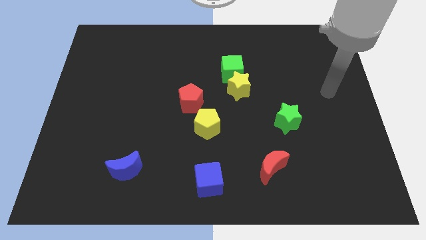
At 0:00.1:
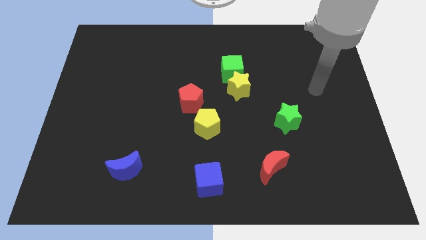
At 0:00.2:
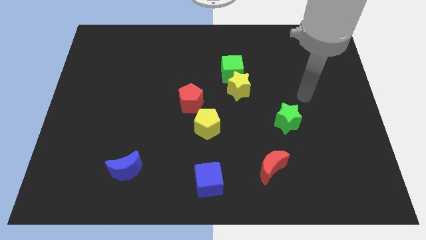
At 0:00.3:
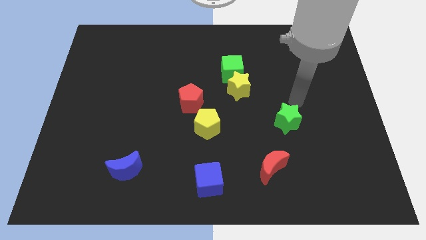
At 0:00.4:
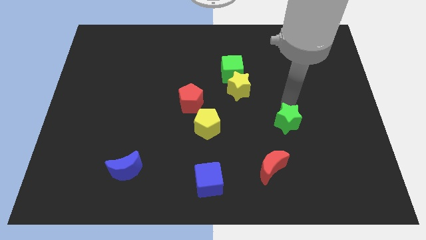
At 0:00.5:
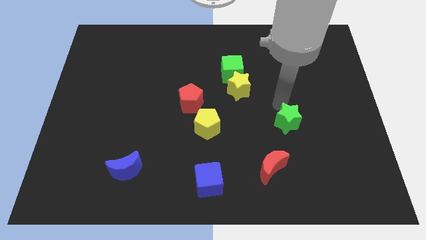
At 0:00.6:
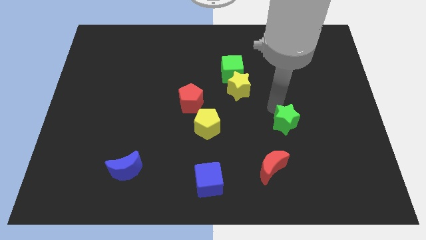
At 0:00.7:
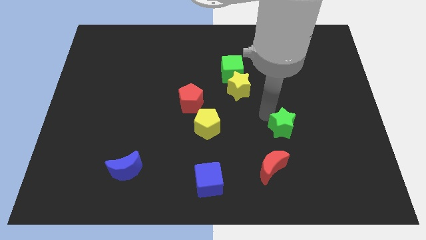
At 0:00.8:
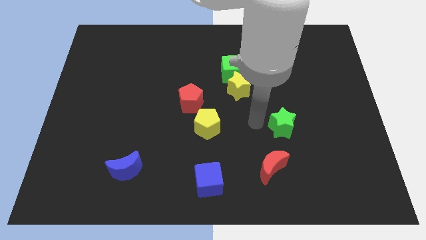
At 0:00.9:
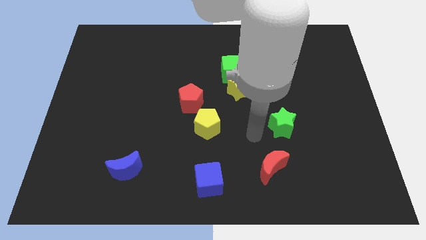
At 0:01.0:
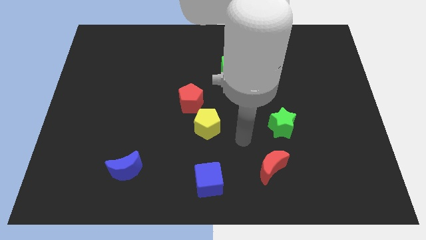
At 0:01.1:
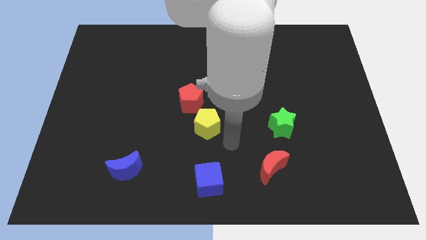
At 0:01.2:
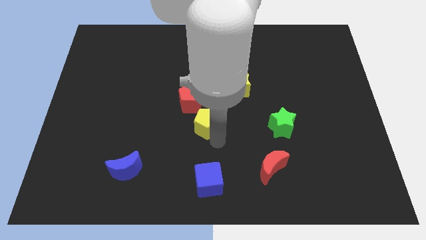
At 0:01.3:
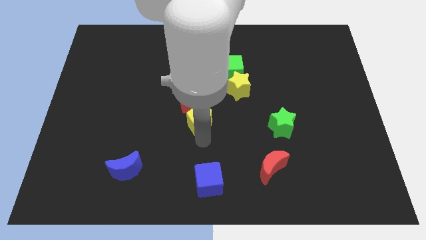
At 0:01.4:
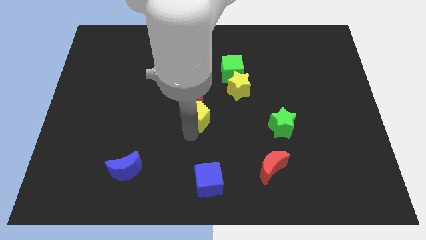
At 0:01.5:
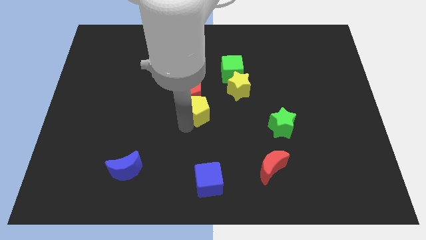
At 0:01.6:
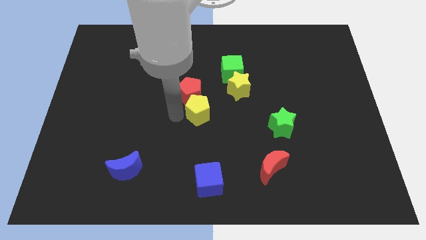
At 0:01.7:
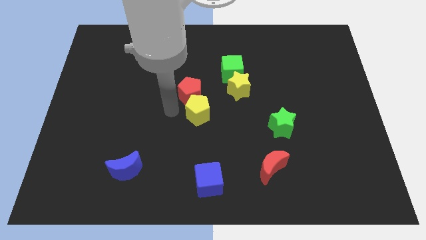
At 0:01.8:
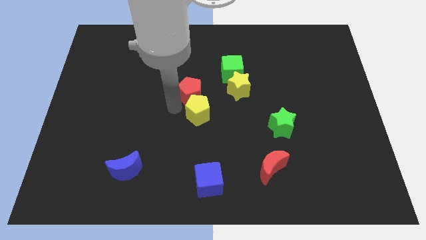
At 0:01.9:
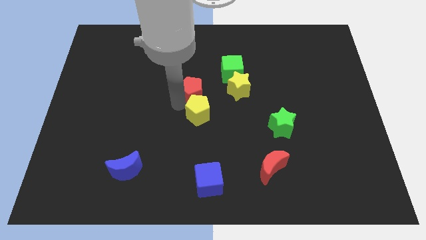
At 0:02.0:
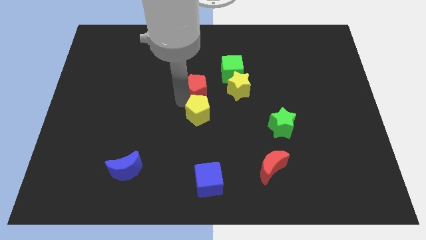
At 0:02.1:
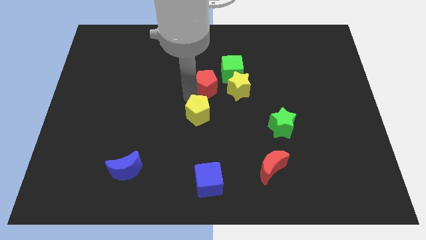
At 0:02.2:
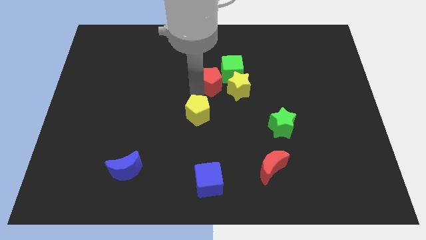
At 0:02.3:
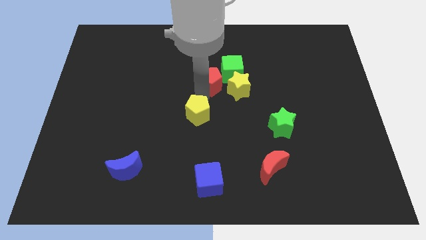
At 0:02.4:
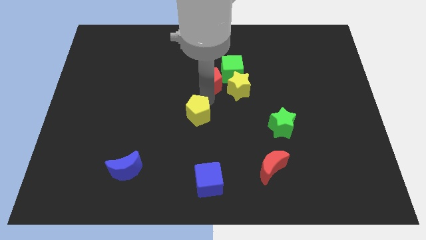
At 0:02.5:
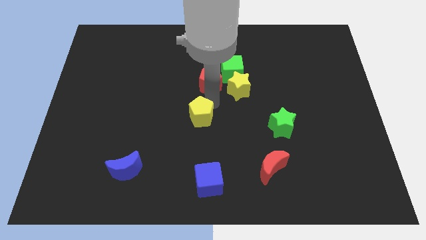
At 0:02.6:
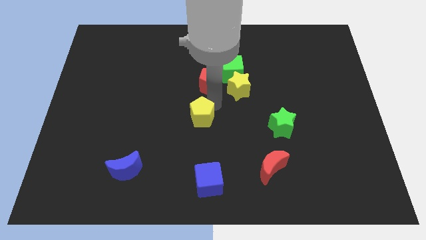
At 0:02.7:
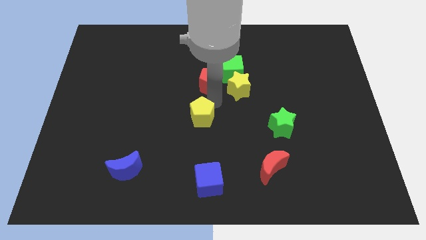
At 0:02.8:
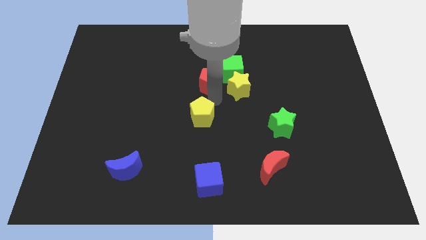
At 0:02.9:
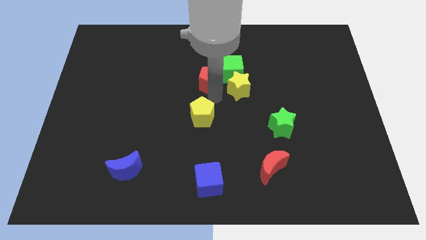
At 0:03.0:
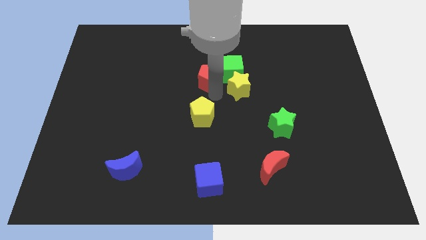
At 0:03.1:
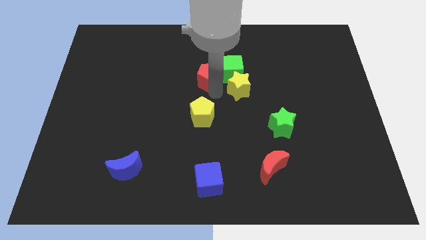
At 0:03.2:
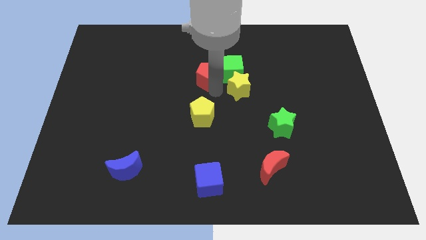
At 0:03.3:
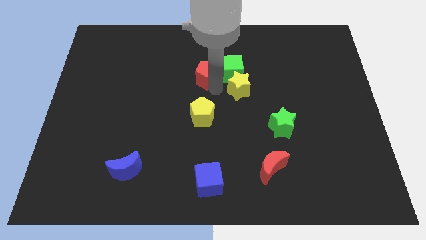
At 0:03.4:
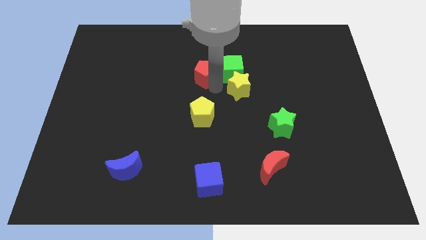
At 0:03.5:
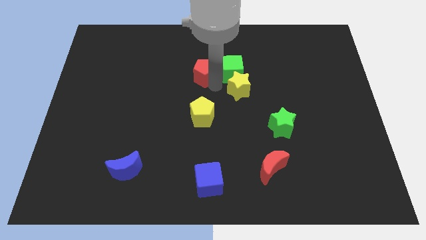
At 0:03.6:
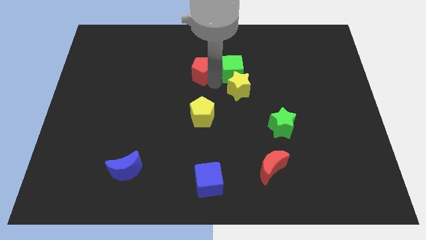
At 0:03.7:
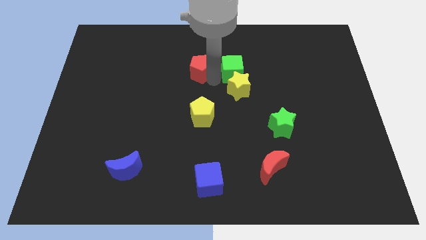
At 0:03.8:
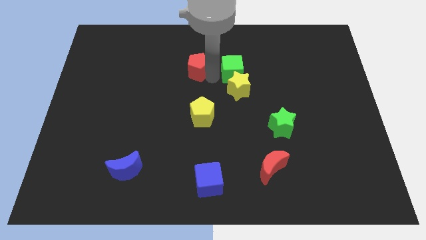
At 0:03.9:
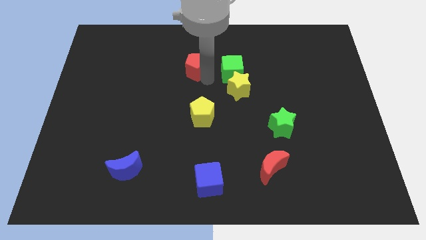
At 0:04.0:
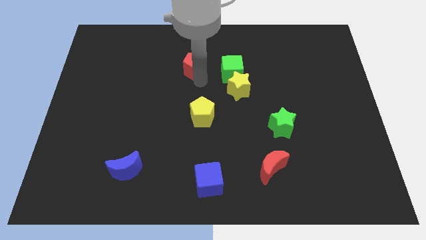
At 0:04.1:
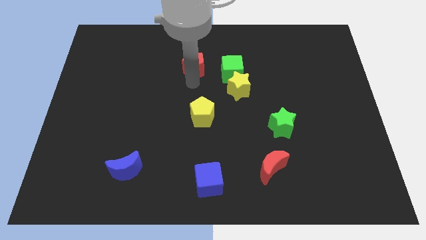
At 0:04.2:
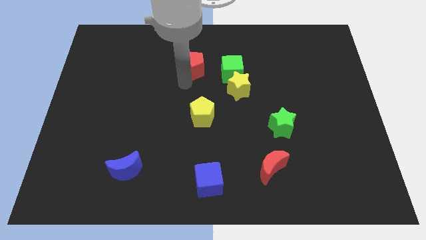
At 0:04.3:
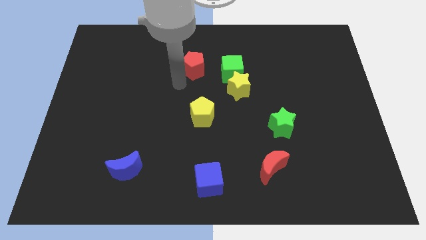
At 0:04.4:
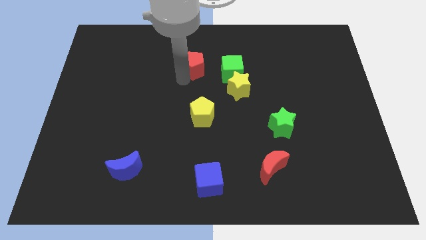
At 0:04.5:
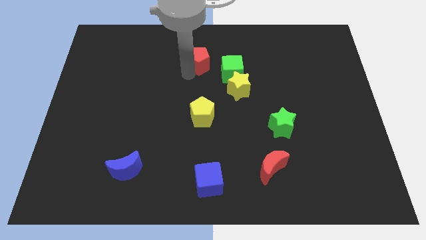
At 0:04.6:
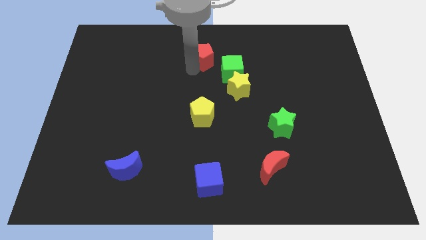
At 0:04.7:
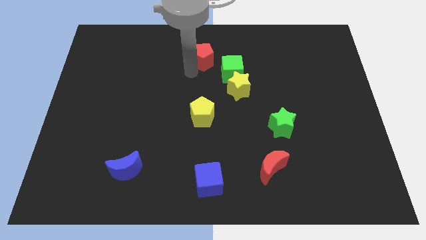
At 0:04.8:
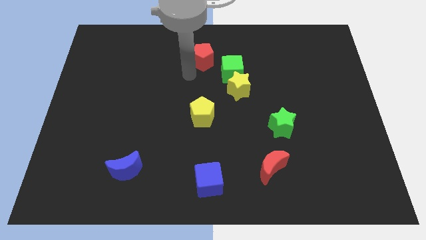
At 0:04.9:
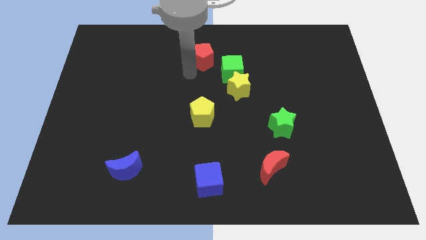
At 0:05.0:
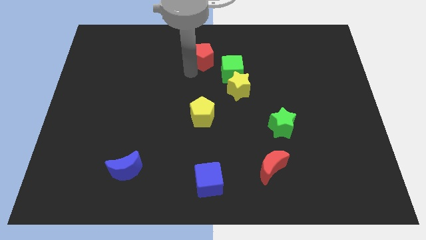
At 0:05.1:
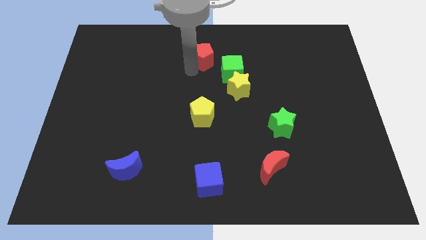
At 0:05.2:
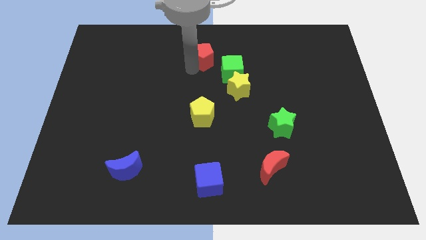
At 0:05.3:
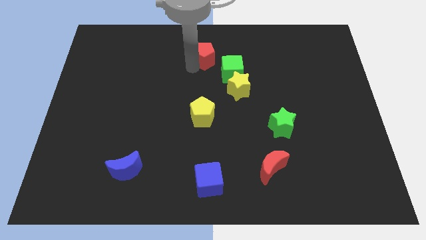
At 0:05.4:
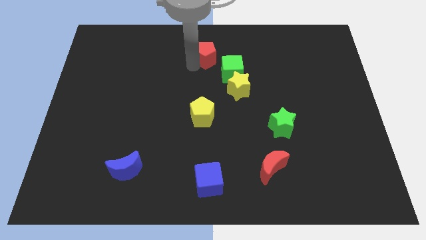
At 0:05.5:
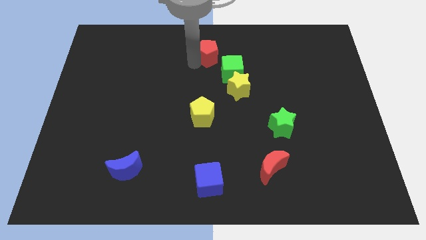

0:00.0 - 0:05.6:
push the red pentagon to the top

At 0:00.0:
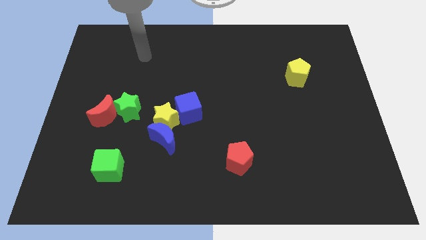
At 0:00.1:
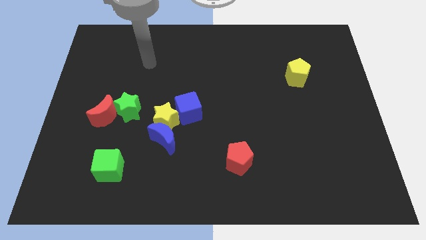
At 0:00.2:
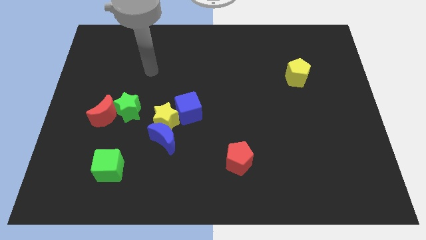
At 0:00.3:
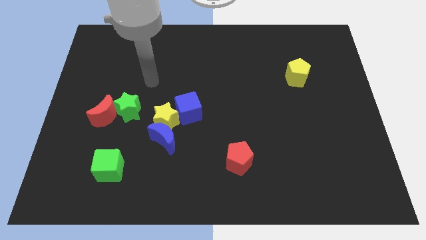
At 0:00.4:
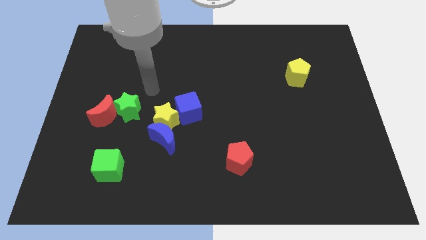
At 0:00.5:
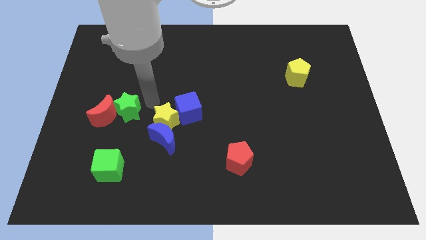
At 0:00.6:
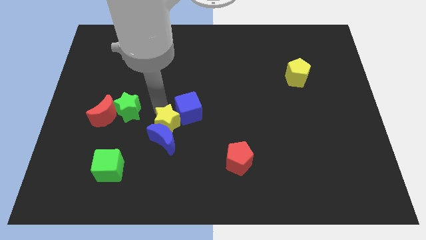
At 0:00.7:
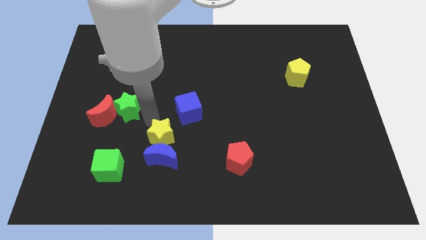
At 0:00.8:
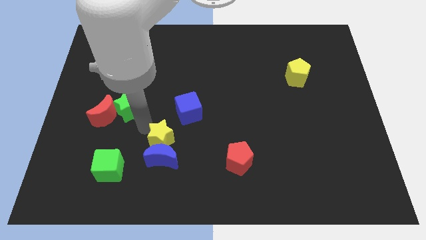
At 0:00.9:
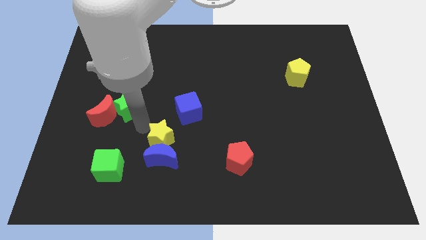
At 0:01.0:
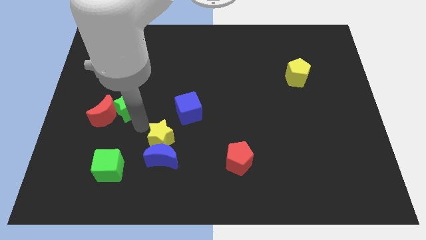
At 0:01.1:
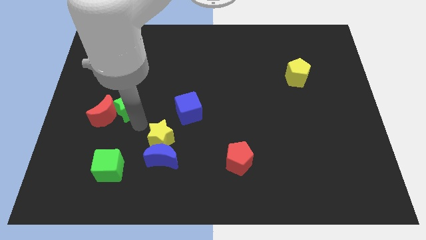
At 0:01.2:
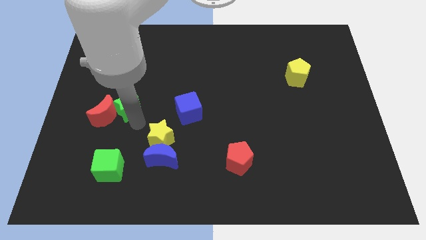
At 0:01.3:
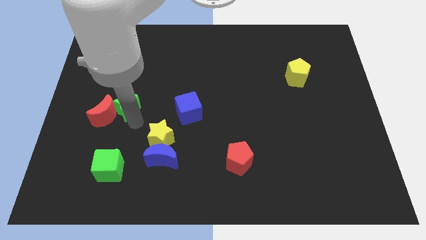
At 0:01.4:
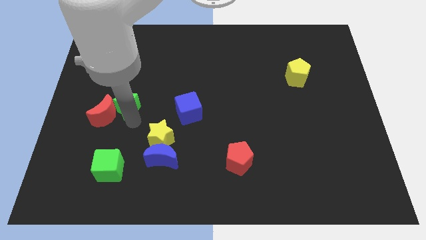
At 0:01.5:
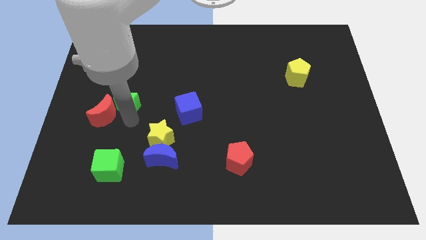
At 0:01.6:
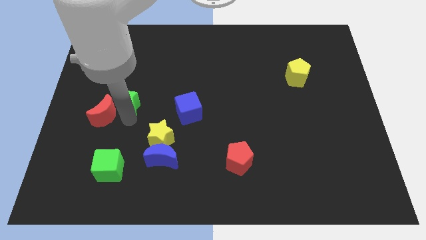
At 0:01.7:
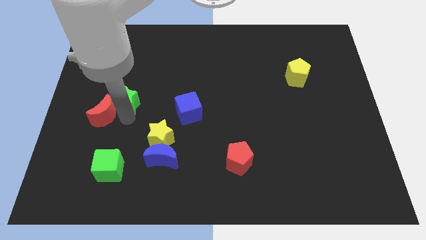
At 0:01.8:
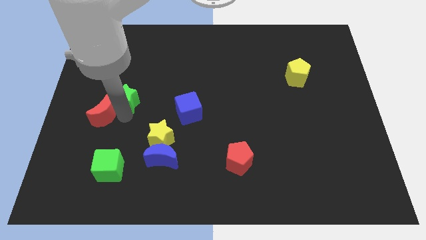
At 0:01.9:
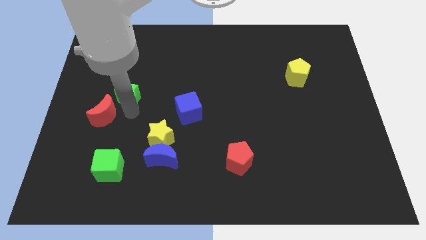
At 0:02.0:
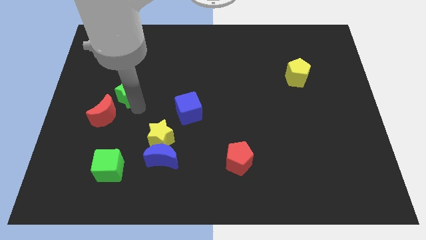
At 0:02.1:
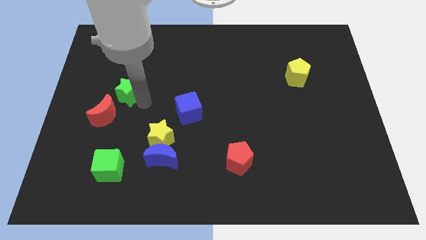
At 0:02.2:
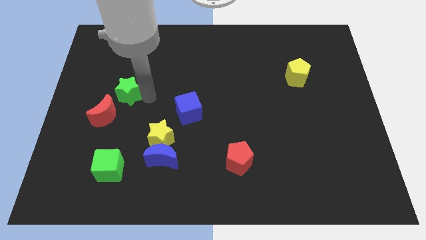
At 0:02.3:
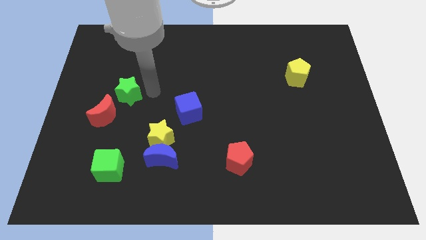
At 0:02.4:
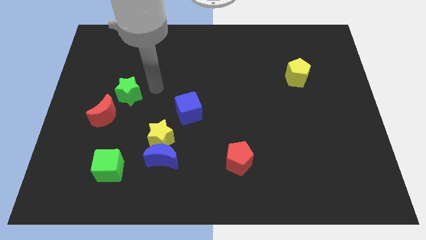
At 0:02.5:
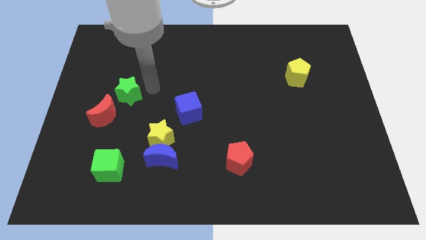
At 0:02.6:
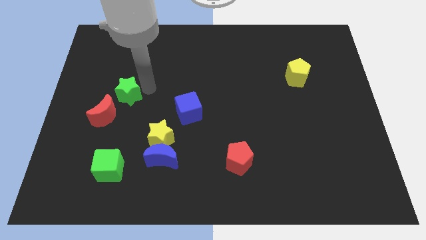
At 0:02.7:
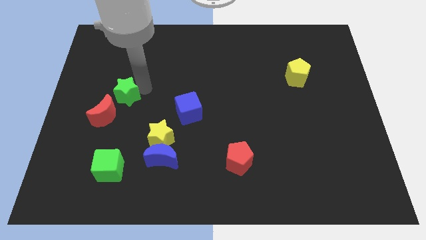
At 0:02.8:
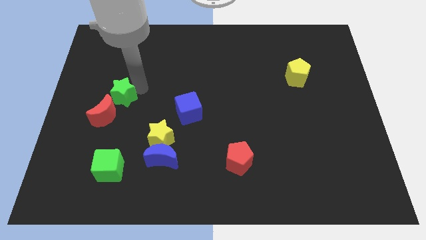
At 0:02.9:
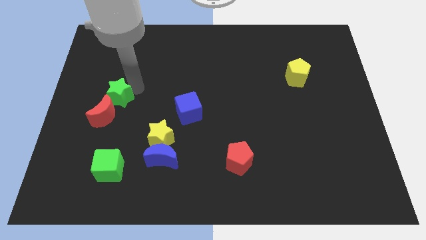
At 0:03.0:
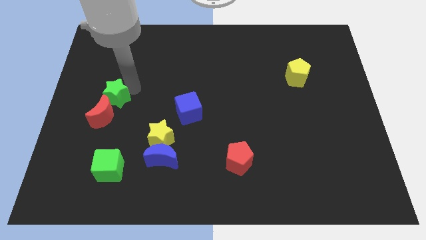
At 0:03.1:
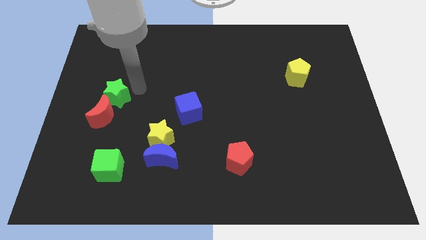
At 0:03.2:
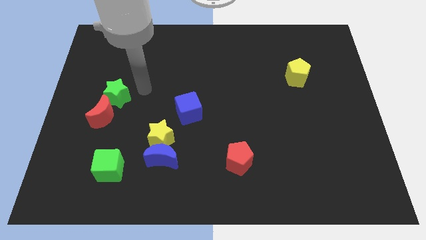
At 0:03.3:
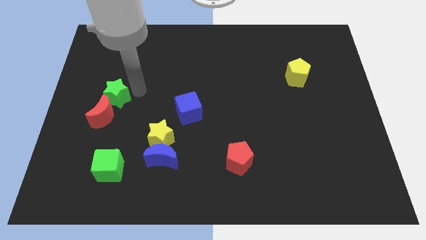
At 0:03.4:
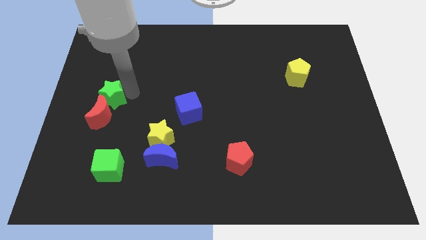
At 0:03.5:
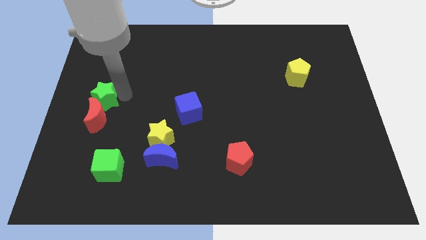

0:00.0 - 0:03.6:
move the green star to the center left
